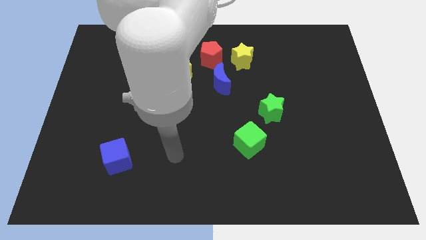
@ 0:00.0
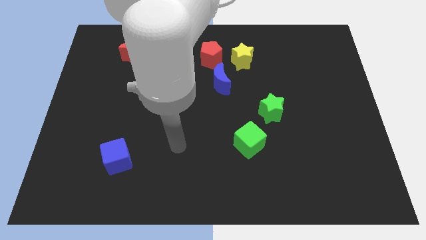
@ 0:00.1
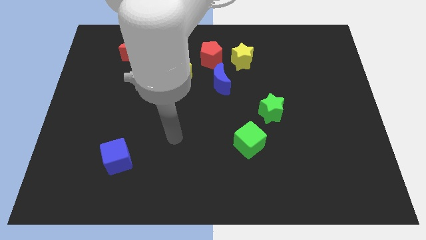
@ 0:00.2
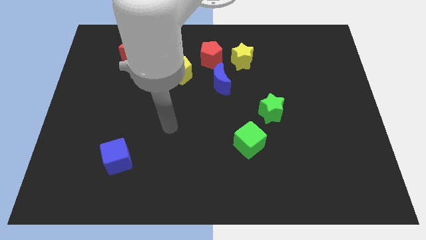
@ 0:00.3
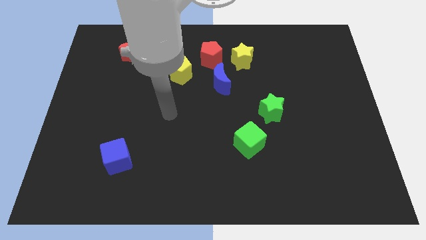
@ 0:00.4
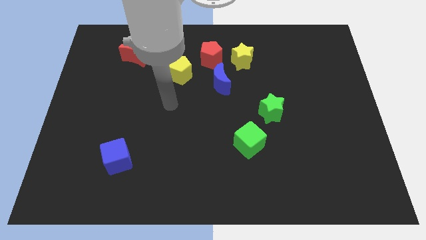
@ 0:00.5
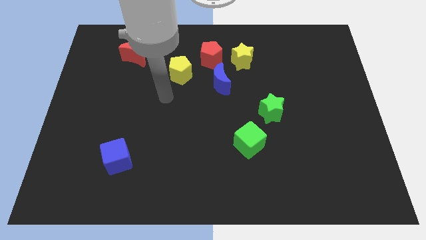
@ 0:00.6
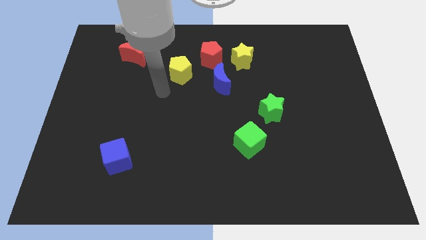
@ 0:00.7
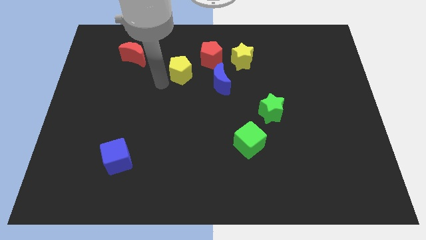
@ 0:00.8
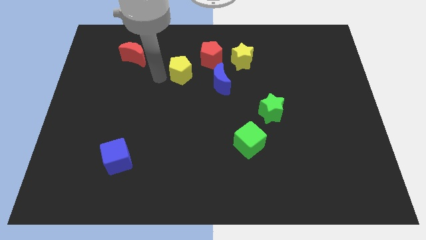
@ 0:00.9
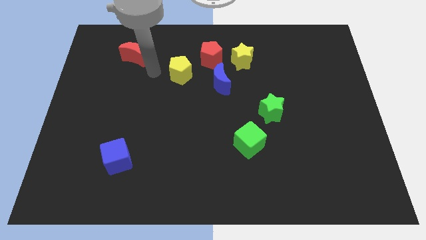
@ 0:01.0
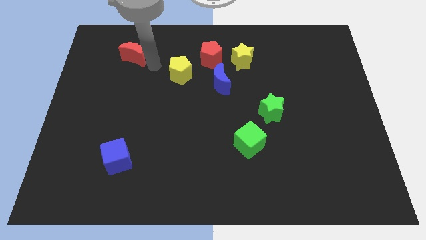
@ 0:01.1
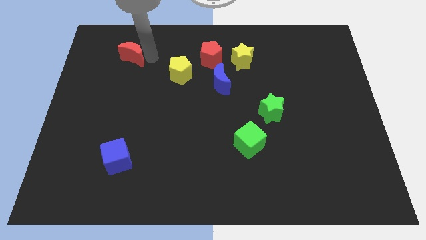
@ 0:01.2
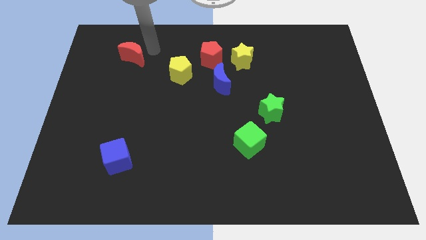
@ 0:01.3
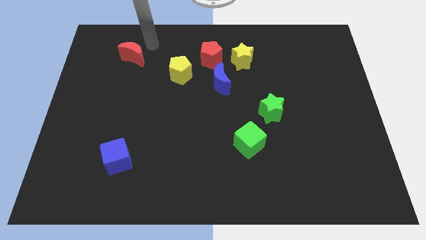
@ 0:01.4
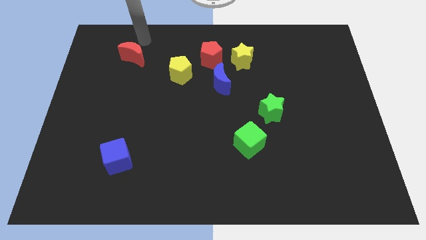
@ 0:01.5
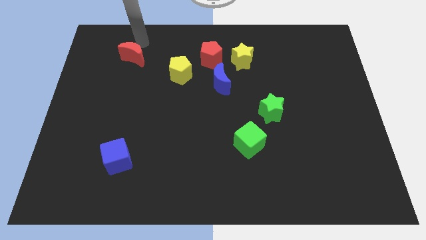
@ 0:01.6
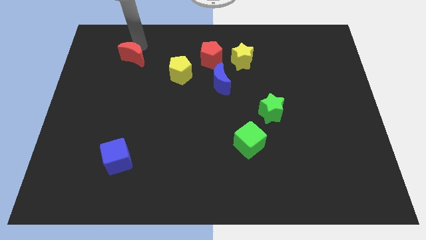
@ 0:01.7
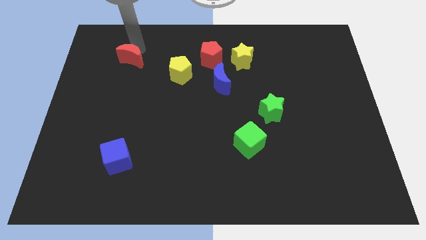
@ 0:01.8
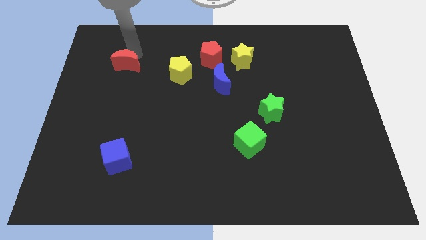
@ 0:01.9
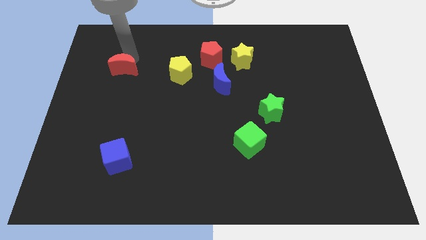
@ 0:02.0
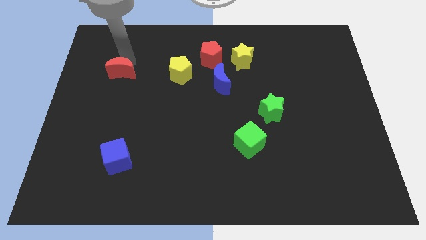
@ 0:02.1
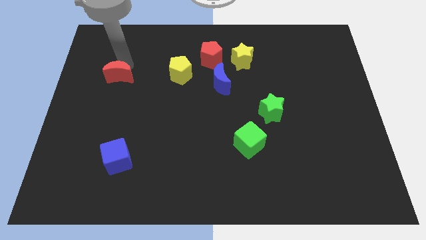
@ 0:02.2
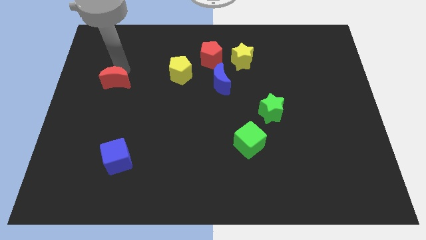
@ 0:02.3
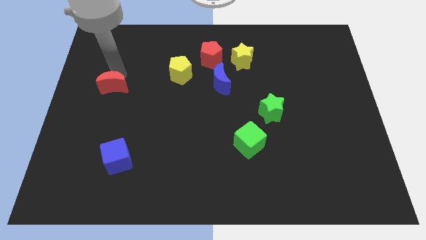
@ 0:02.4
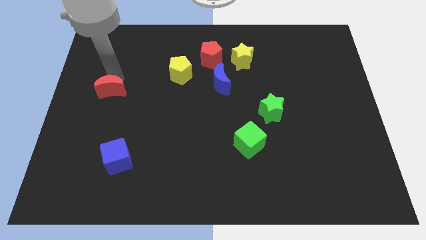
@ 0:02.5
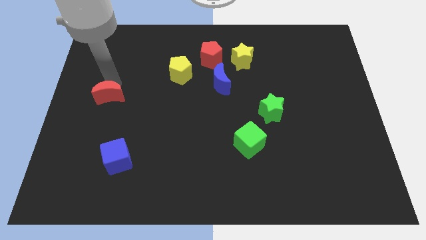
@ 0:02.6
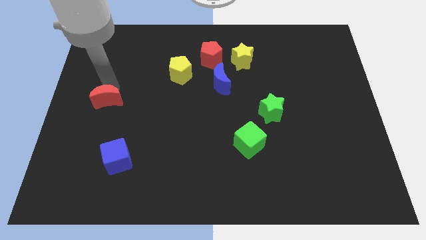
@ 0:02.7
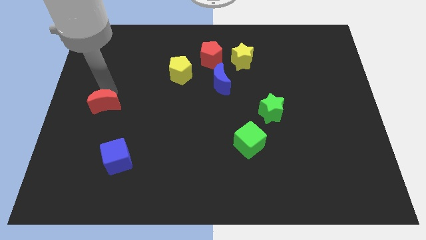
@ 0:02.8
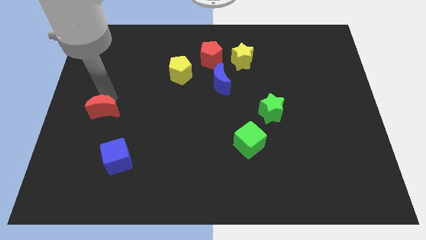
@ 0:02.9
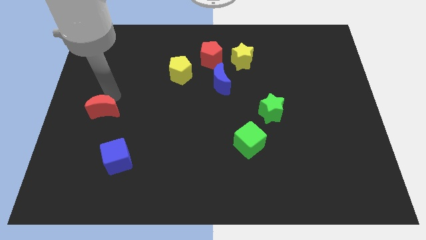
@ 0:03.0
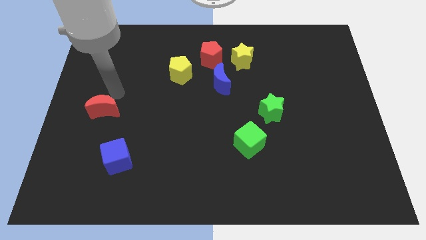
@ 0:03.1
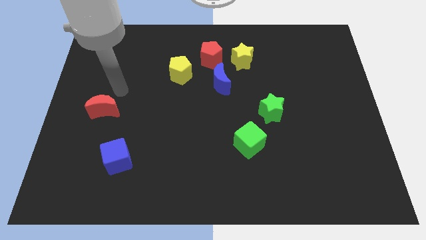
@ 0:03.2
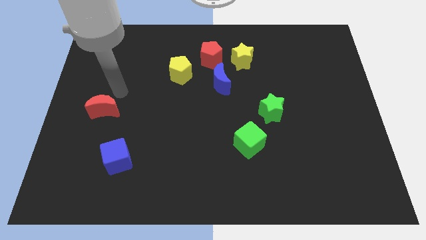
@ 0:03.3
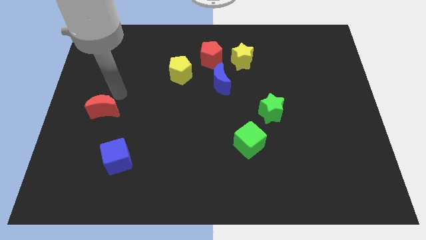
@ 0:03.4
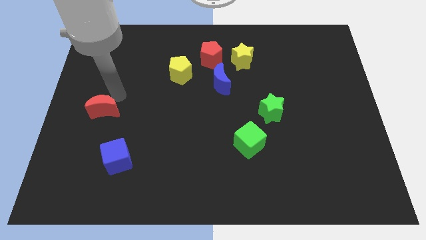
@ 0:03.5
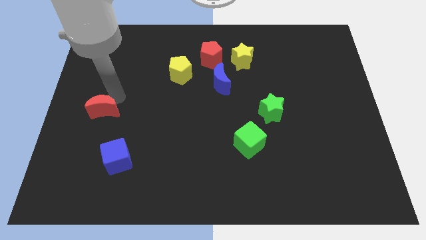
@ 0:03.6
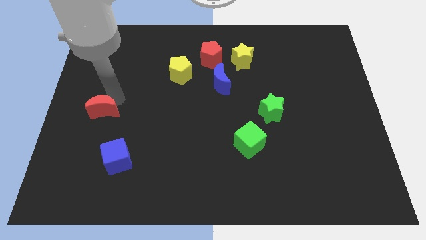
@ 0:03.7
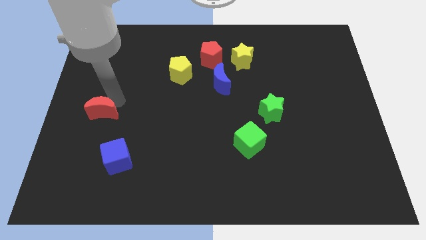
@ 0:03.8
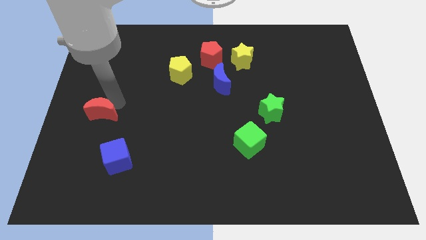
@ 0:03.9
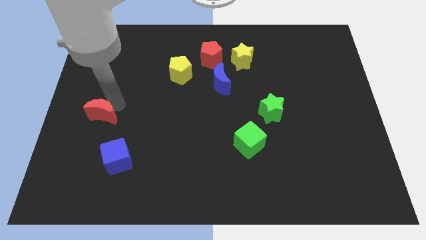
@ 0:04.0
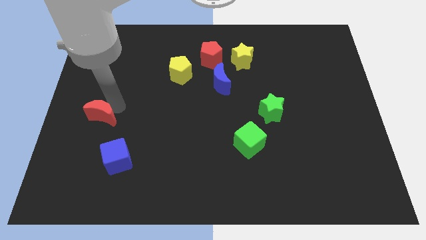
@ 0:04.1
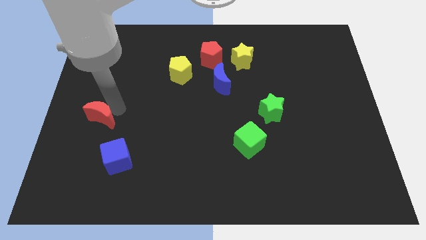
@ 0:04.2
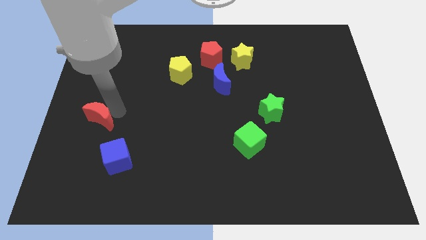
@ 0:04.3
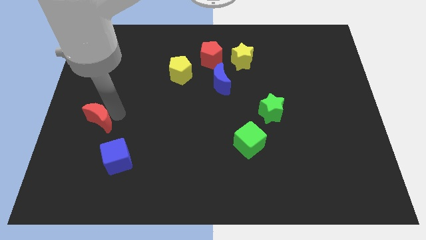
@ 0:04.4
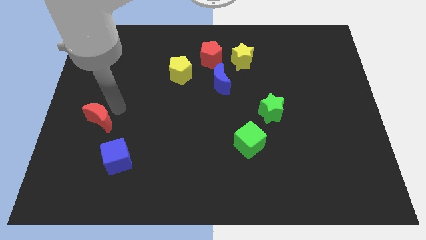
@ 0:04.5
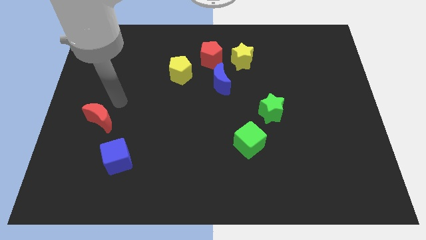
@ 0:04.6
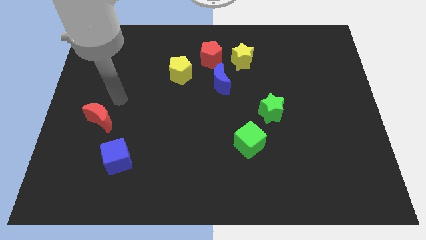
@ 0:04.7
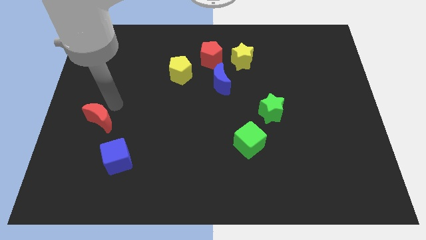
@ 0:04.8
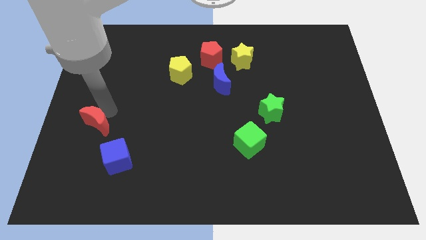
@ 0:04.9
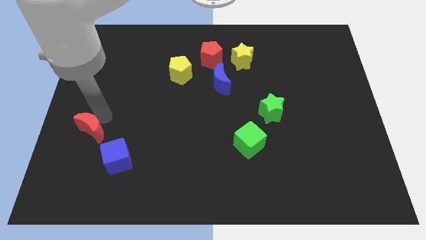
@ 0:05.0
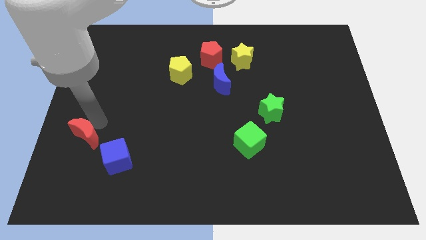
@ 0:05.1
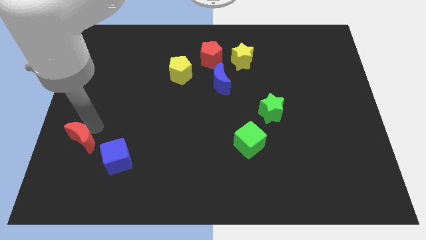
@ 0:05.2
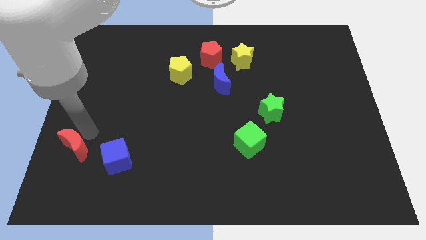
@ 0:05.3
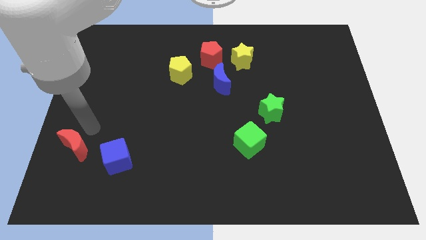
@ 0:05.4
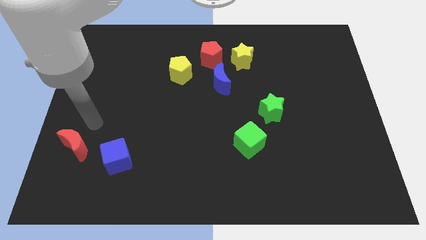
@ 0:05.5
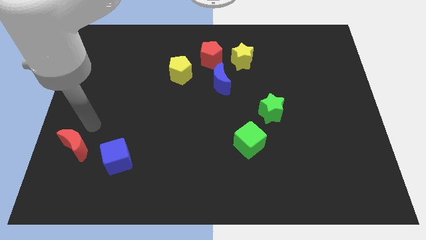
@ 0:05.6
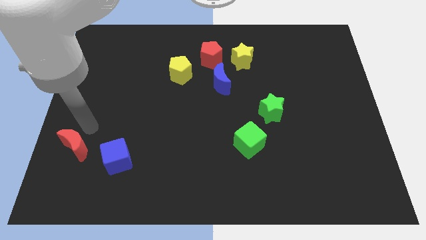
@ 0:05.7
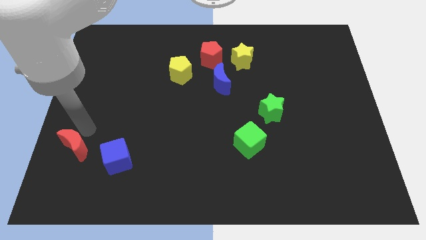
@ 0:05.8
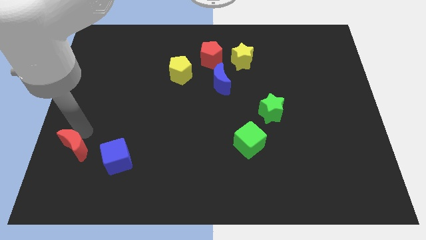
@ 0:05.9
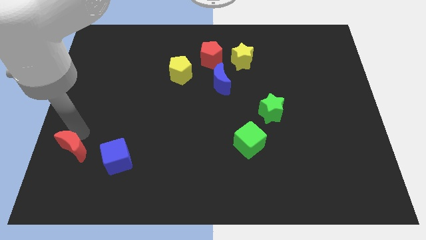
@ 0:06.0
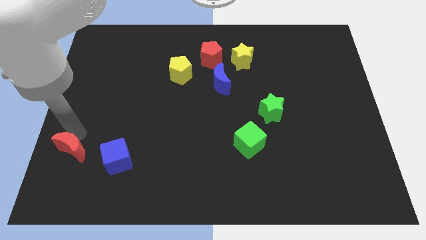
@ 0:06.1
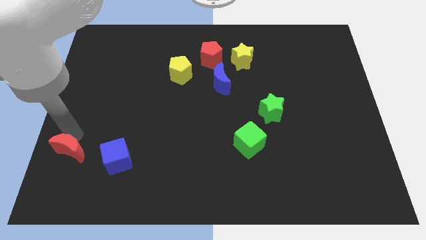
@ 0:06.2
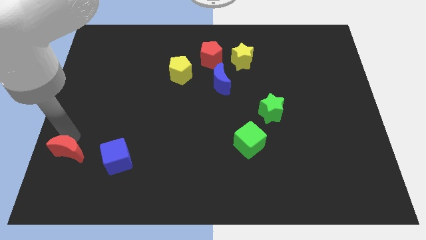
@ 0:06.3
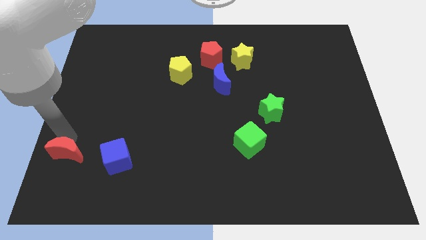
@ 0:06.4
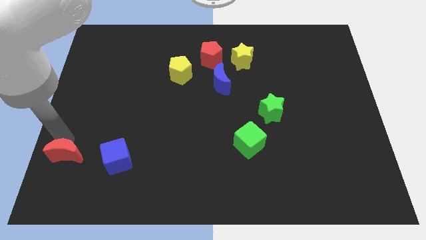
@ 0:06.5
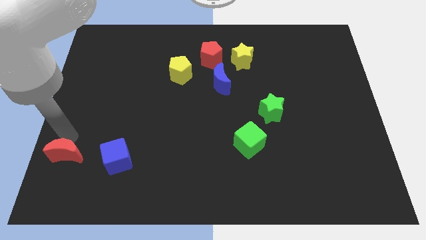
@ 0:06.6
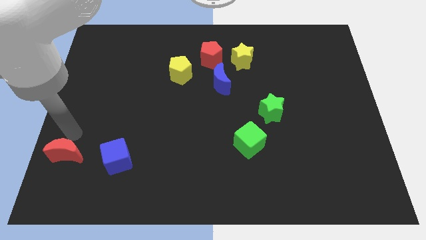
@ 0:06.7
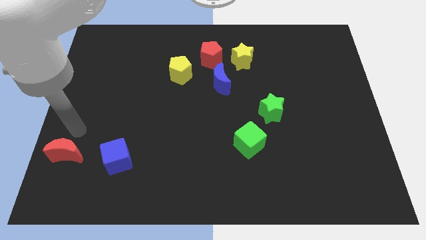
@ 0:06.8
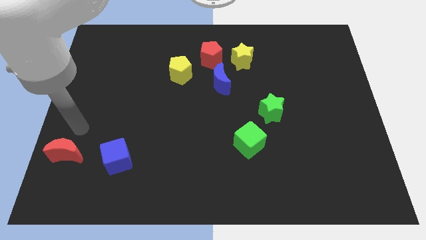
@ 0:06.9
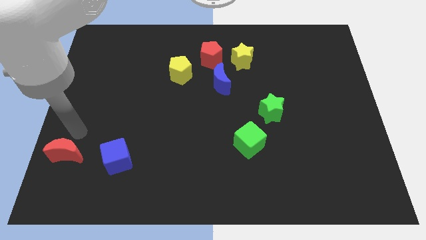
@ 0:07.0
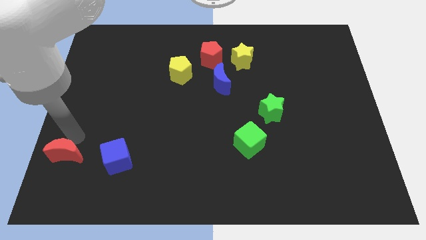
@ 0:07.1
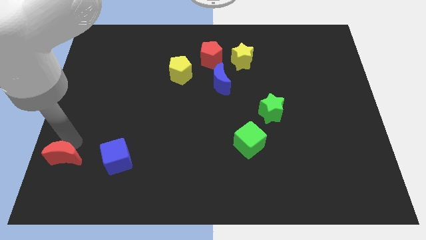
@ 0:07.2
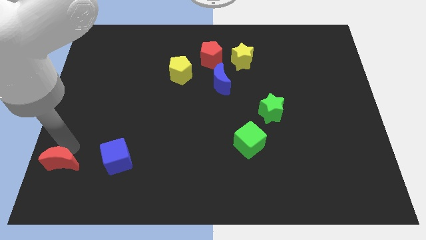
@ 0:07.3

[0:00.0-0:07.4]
push the red moon to the bottom left of the board
